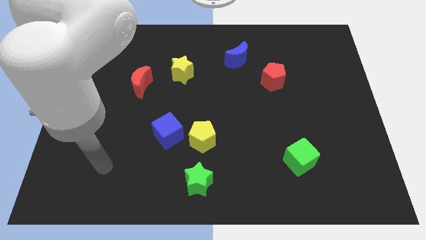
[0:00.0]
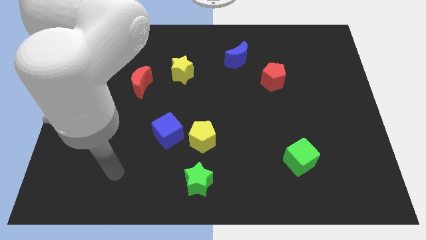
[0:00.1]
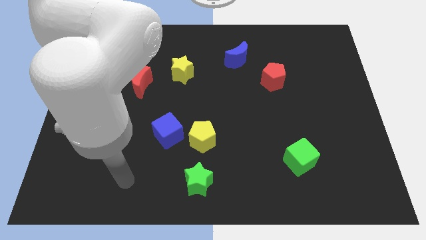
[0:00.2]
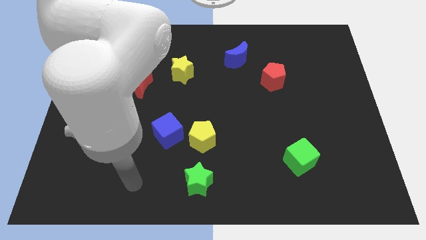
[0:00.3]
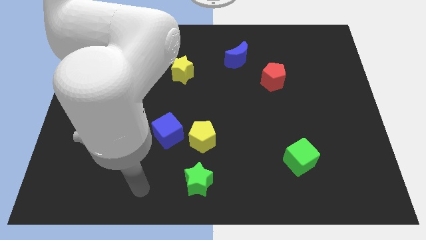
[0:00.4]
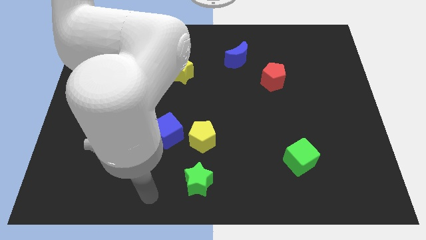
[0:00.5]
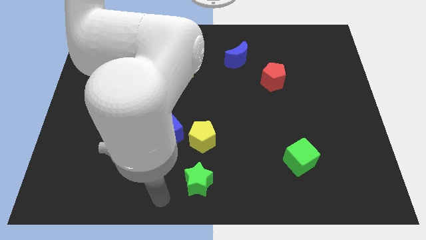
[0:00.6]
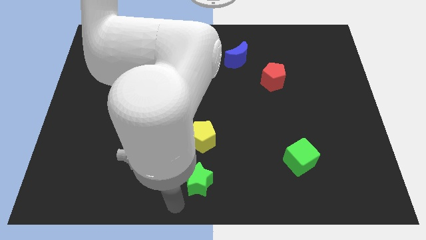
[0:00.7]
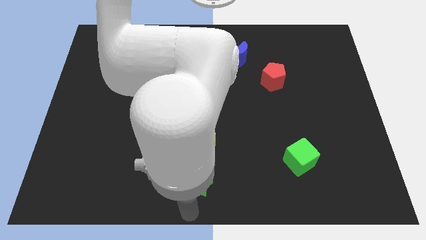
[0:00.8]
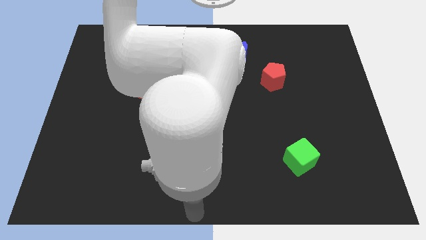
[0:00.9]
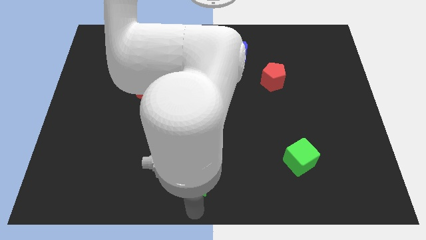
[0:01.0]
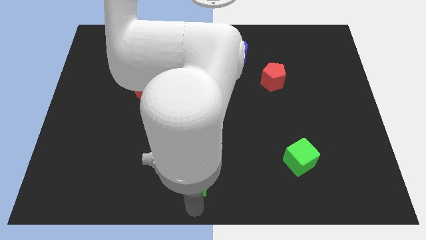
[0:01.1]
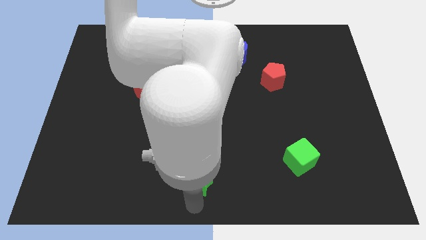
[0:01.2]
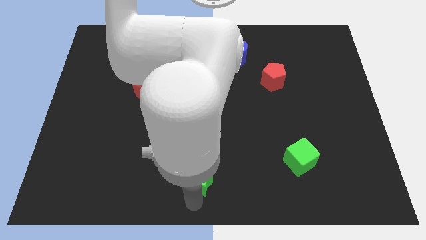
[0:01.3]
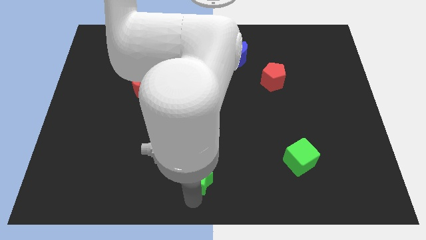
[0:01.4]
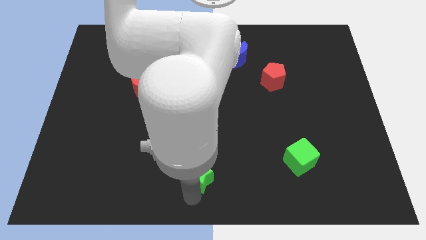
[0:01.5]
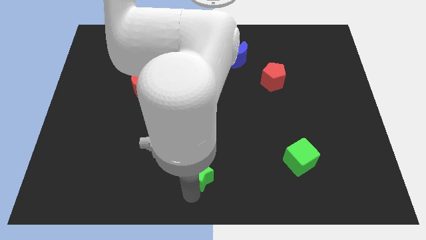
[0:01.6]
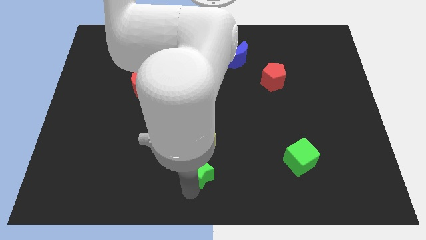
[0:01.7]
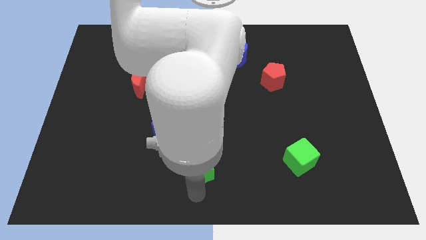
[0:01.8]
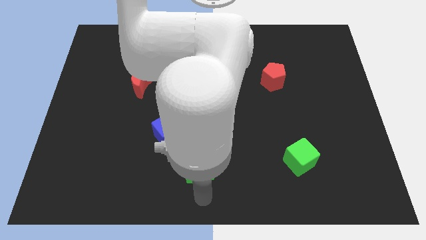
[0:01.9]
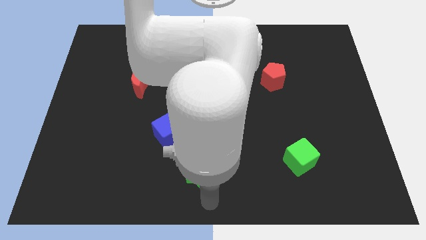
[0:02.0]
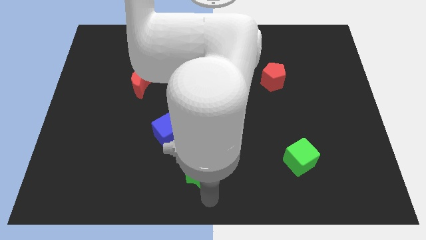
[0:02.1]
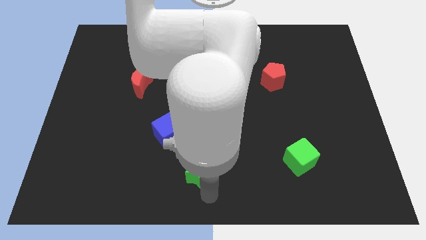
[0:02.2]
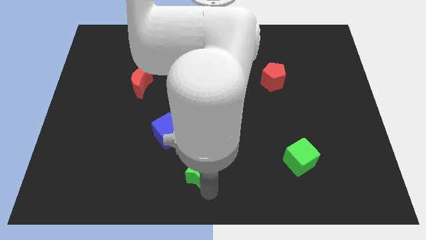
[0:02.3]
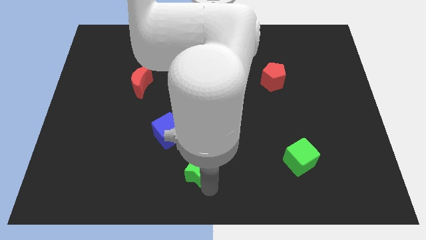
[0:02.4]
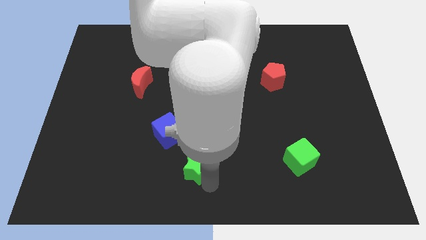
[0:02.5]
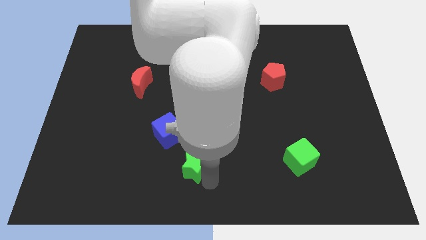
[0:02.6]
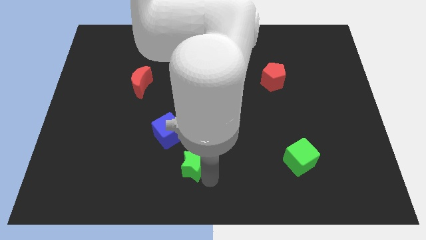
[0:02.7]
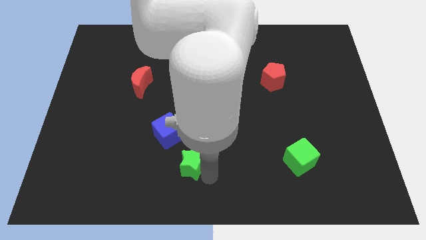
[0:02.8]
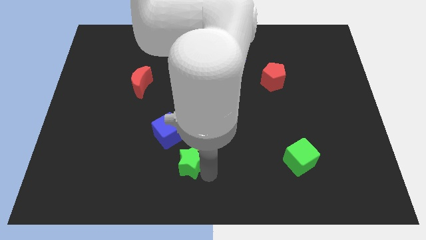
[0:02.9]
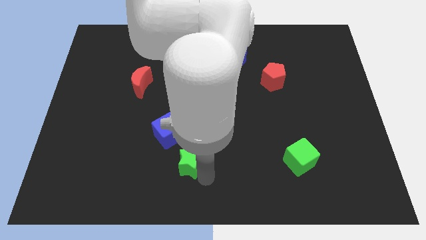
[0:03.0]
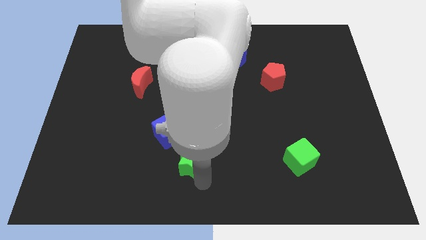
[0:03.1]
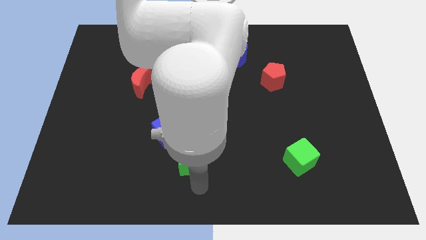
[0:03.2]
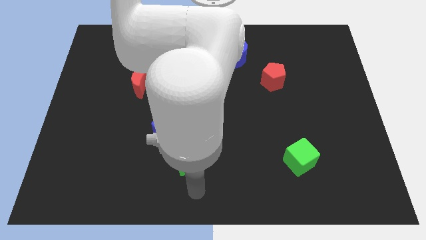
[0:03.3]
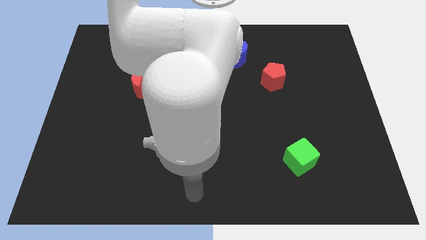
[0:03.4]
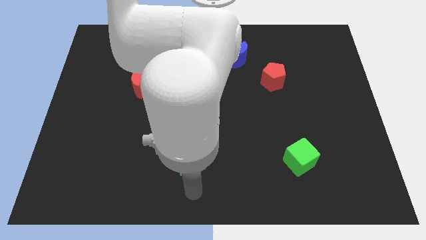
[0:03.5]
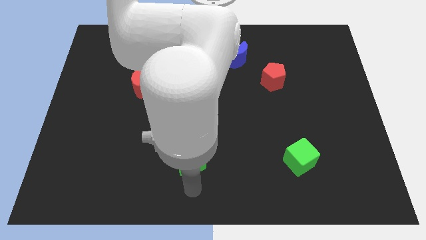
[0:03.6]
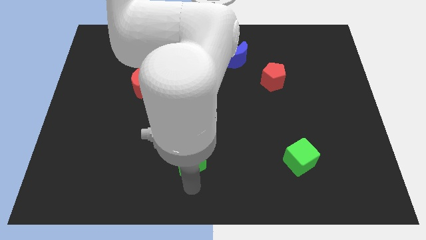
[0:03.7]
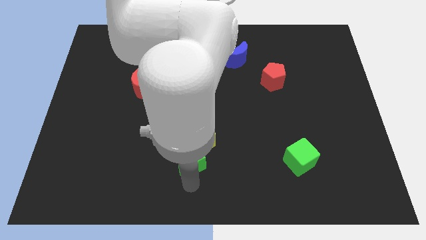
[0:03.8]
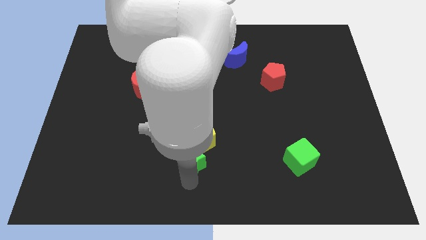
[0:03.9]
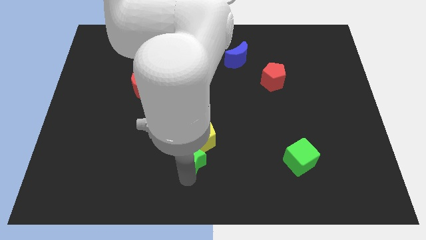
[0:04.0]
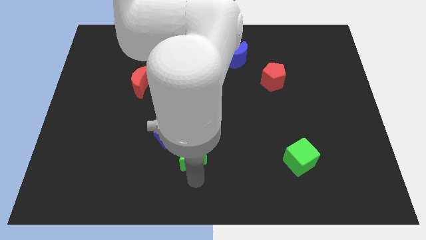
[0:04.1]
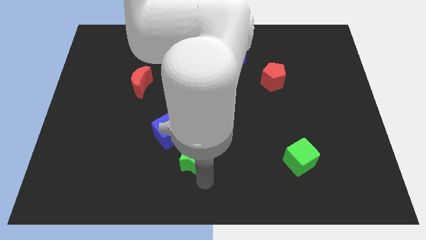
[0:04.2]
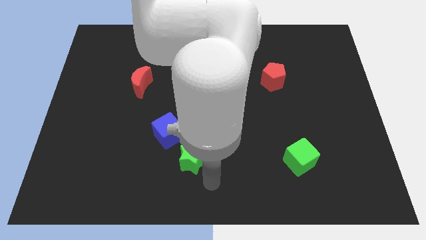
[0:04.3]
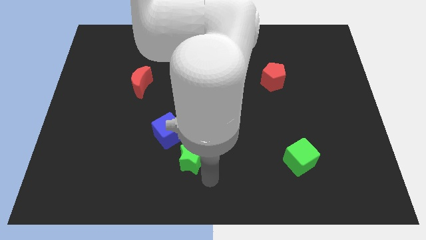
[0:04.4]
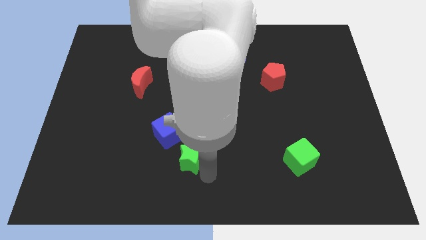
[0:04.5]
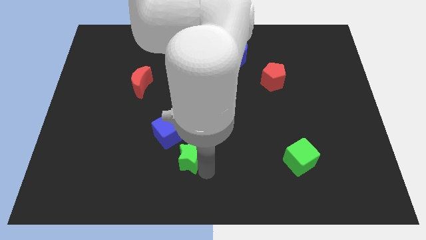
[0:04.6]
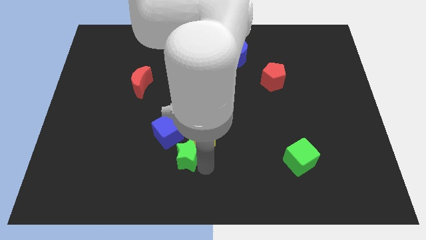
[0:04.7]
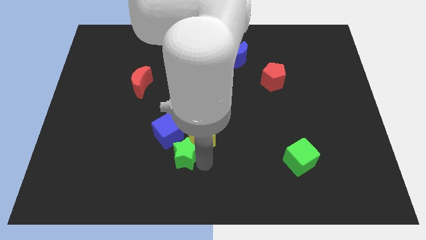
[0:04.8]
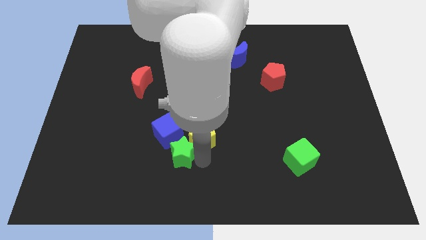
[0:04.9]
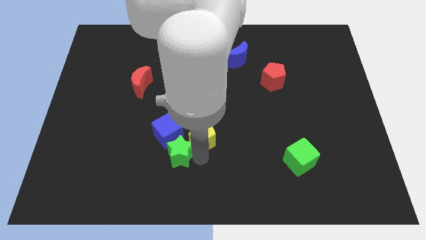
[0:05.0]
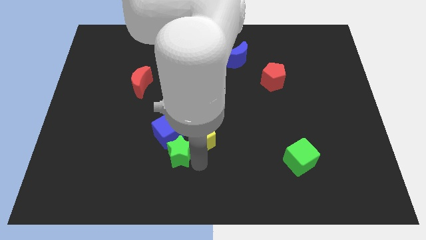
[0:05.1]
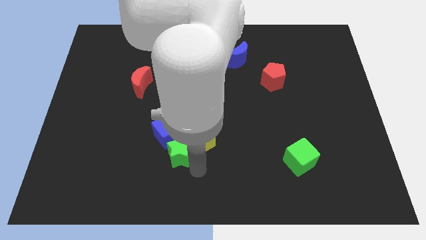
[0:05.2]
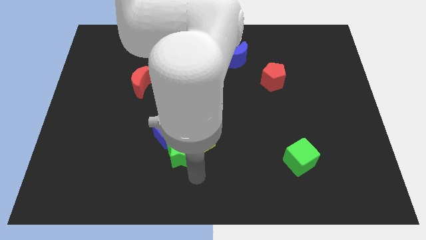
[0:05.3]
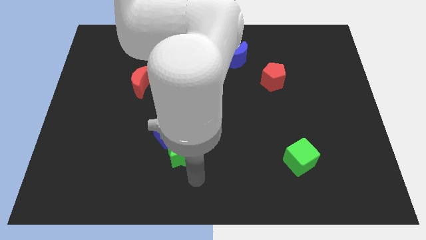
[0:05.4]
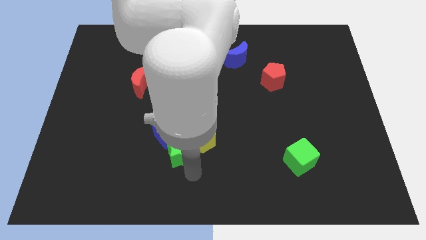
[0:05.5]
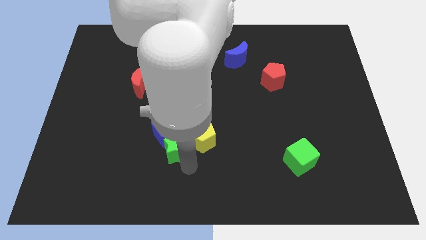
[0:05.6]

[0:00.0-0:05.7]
put the green star close to the blue cube

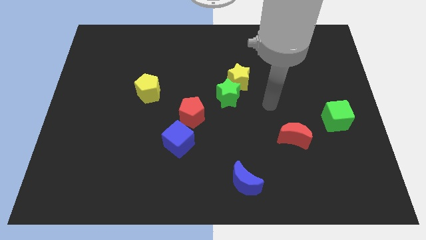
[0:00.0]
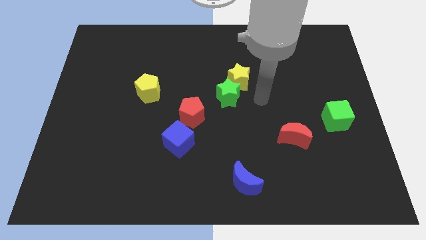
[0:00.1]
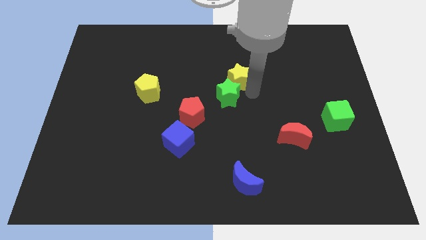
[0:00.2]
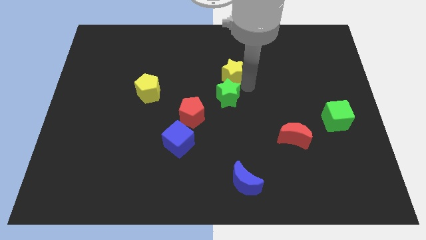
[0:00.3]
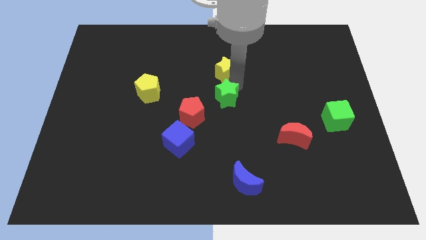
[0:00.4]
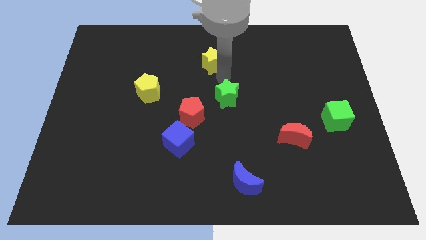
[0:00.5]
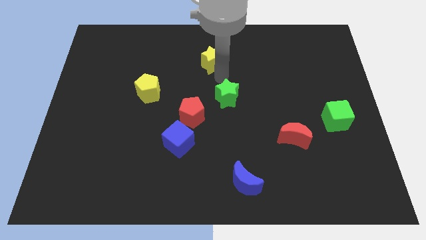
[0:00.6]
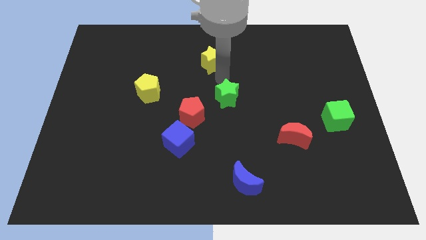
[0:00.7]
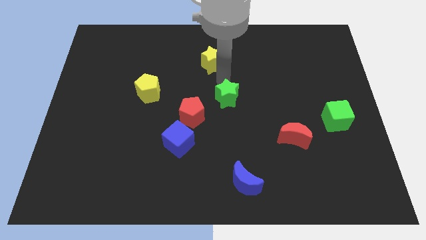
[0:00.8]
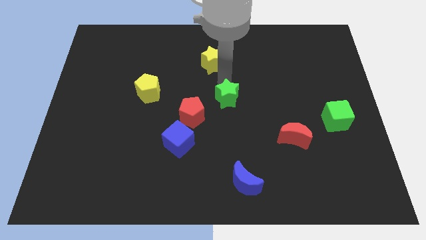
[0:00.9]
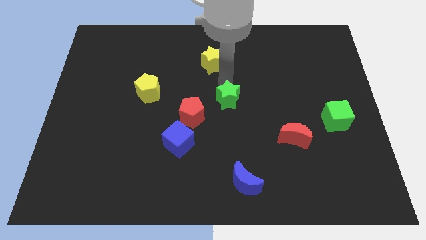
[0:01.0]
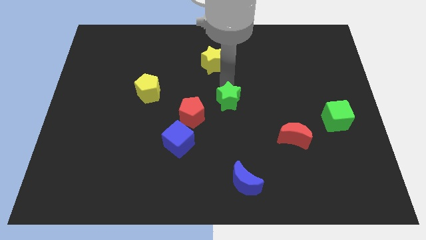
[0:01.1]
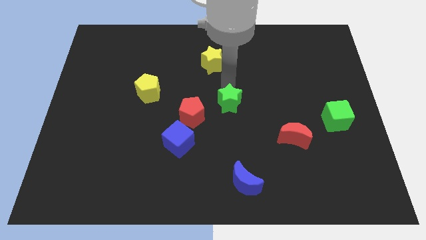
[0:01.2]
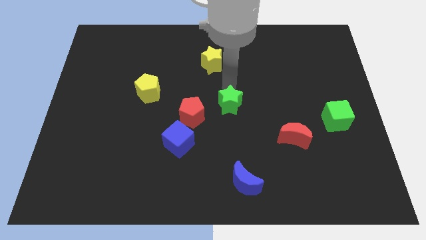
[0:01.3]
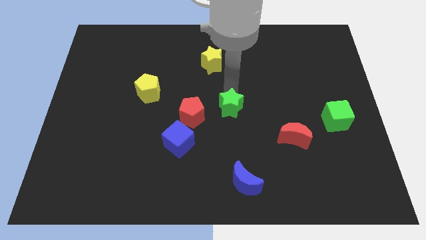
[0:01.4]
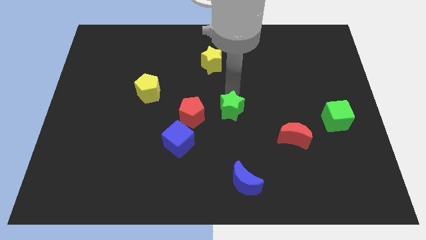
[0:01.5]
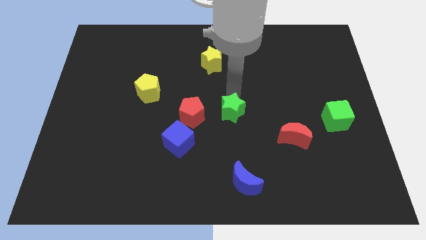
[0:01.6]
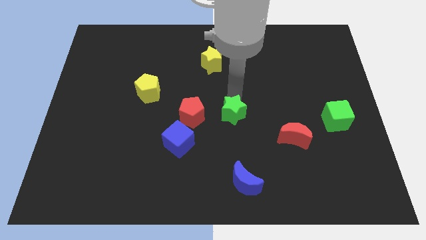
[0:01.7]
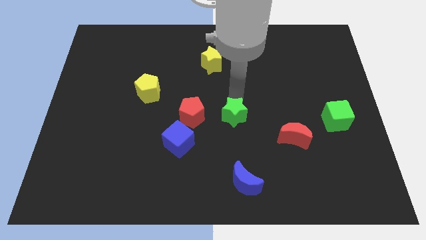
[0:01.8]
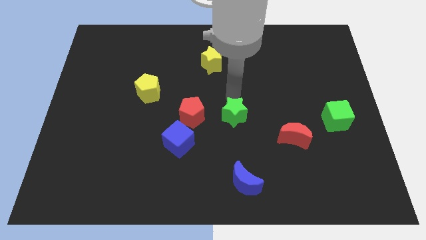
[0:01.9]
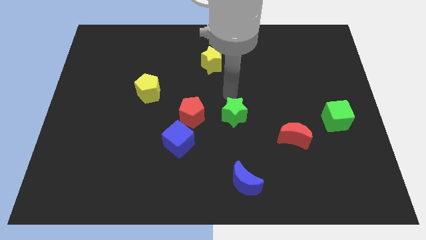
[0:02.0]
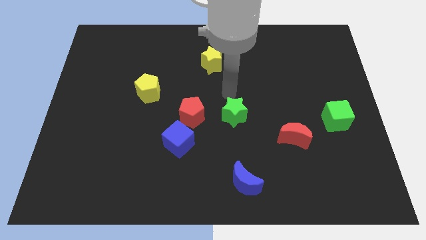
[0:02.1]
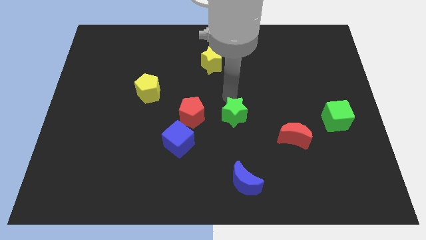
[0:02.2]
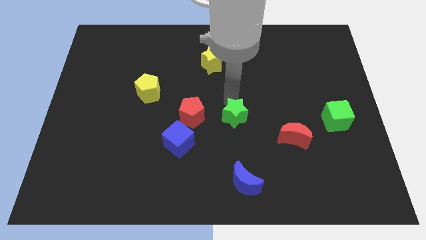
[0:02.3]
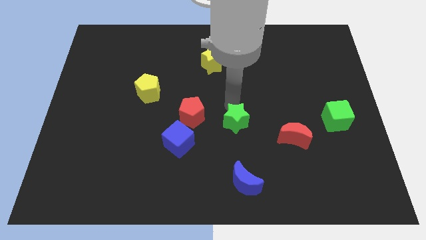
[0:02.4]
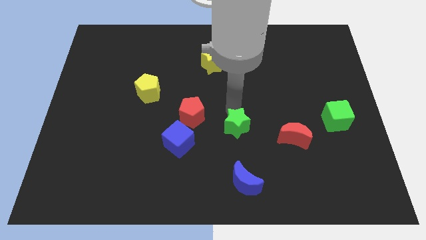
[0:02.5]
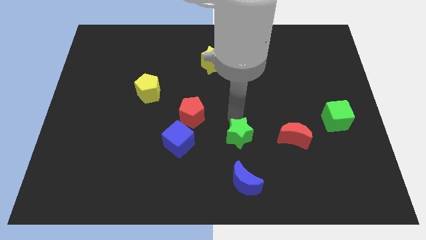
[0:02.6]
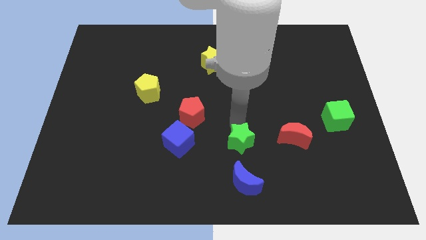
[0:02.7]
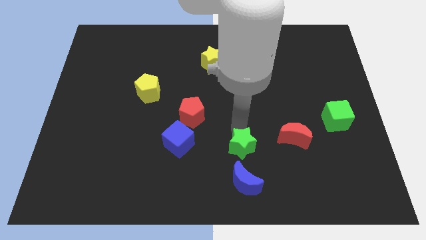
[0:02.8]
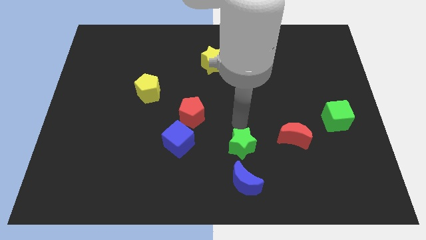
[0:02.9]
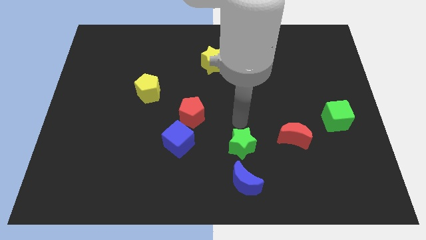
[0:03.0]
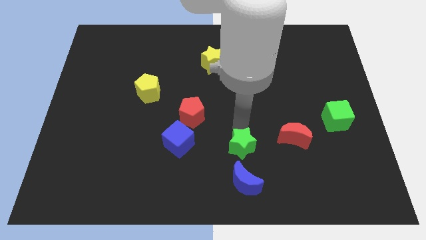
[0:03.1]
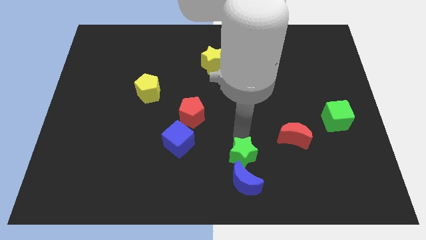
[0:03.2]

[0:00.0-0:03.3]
slide the green star towards the blue moon
